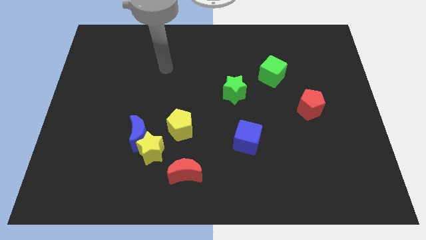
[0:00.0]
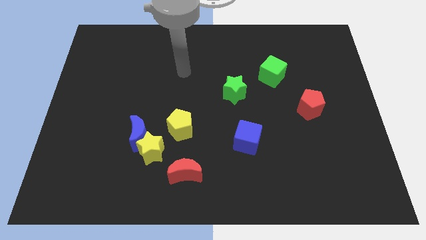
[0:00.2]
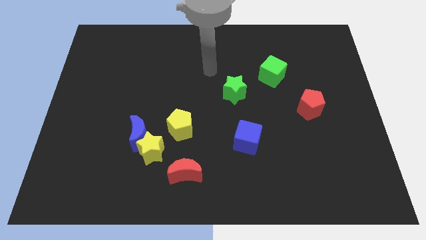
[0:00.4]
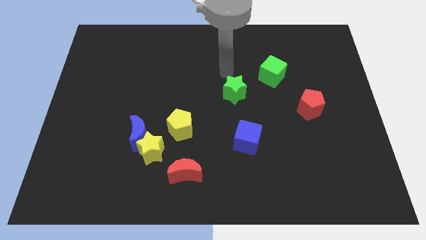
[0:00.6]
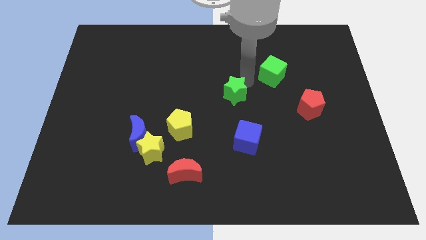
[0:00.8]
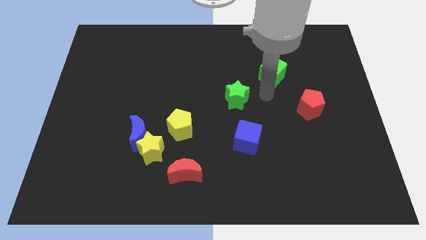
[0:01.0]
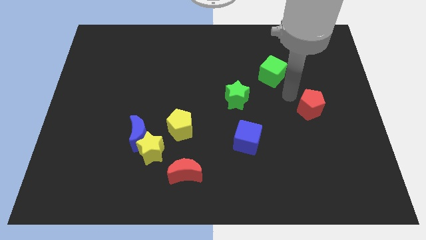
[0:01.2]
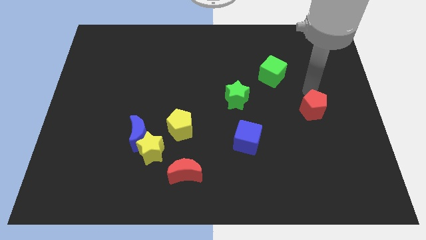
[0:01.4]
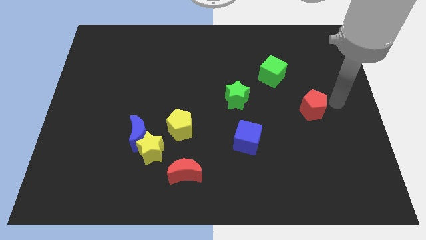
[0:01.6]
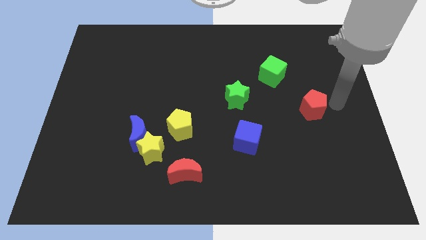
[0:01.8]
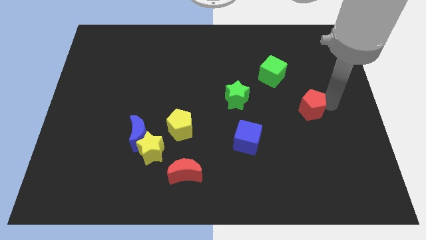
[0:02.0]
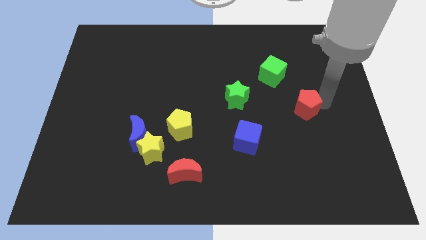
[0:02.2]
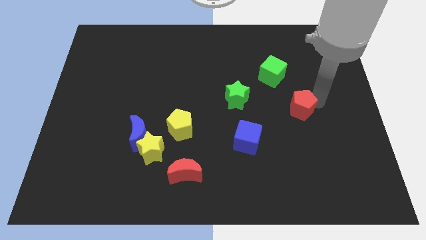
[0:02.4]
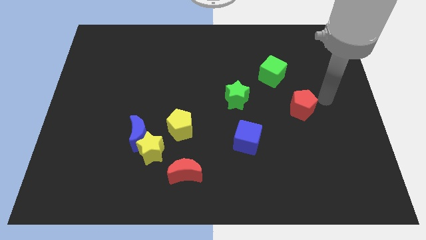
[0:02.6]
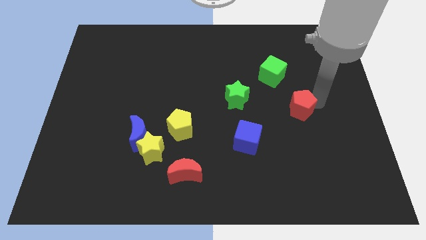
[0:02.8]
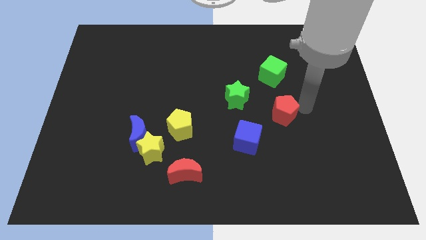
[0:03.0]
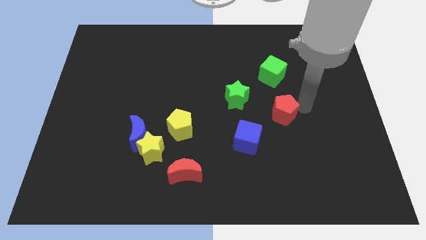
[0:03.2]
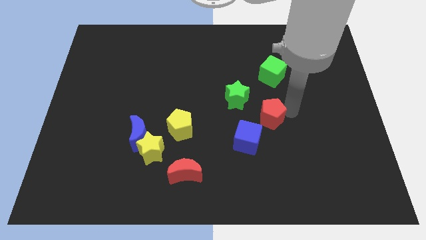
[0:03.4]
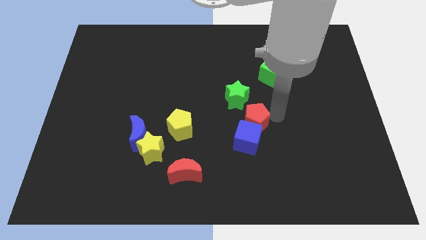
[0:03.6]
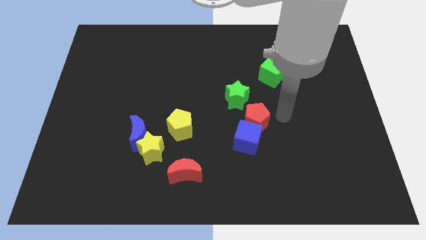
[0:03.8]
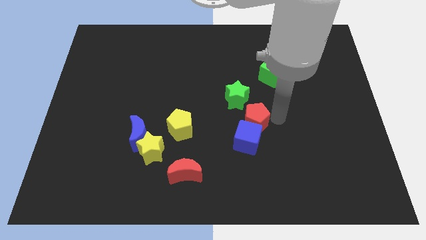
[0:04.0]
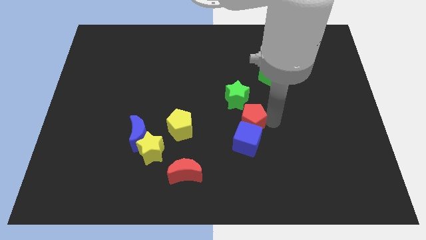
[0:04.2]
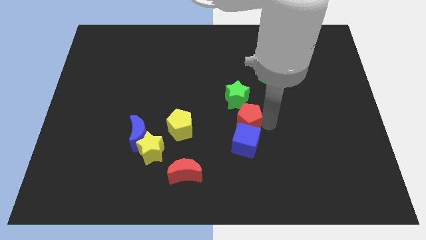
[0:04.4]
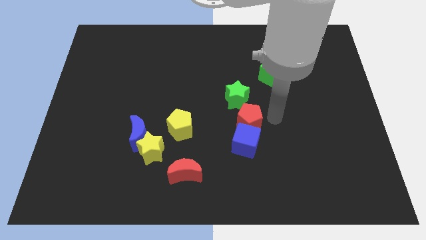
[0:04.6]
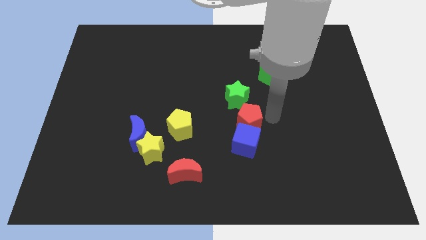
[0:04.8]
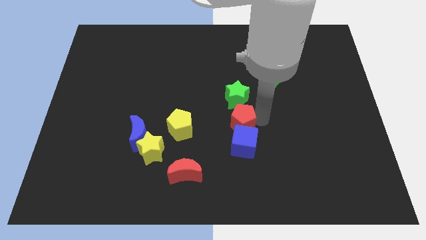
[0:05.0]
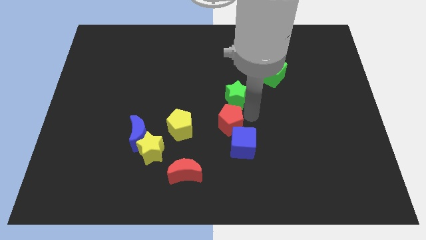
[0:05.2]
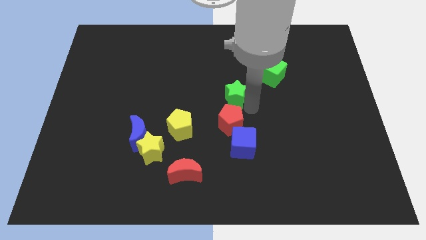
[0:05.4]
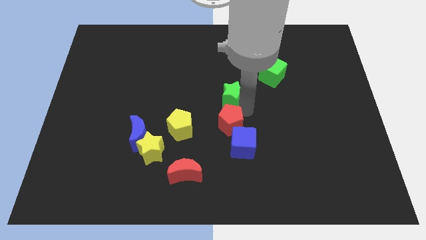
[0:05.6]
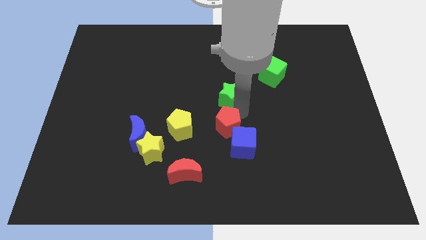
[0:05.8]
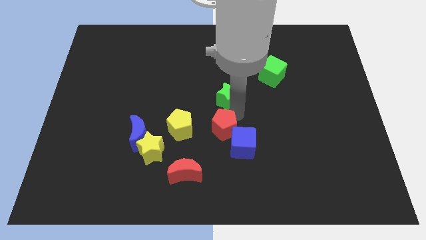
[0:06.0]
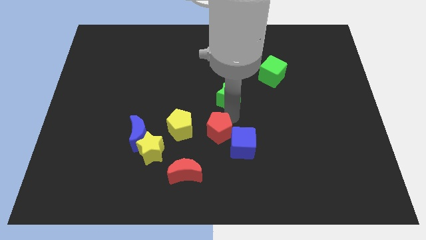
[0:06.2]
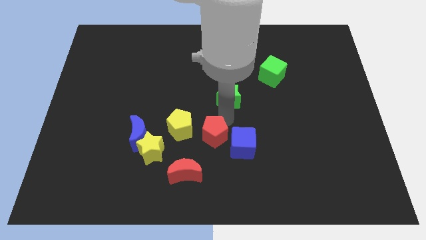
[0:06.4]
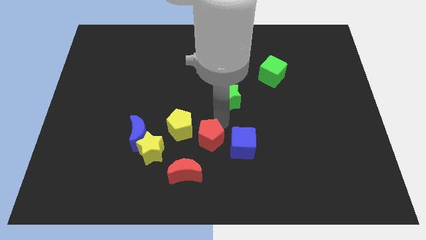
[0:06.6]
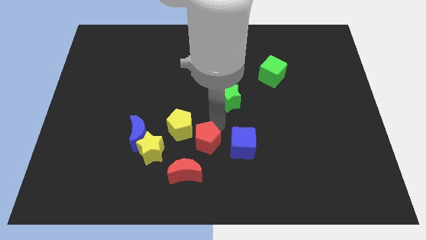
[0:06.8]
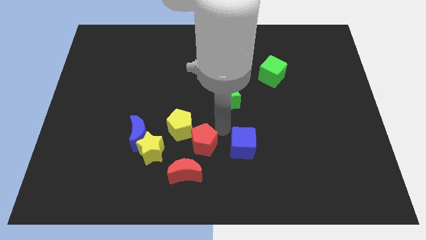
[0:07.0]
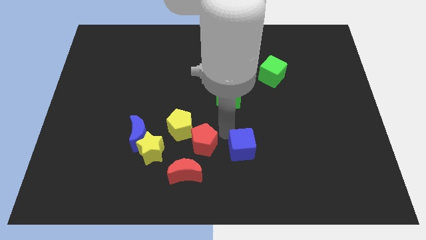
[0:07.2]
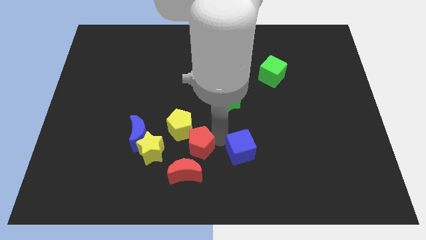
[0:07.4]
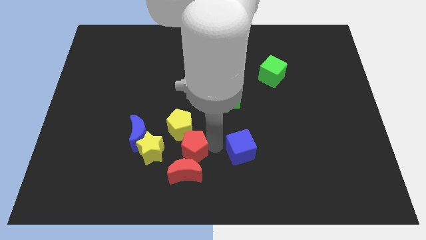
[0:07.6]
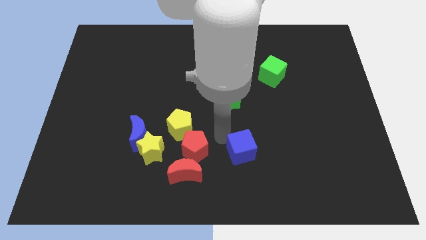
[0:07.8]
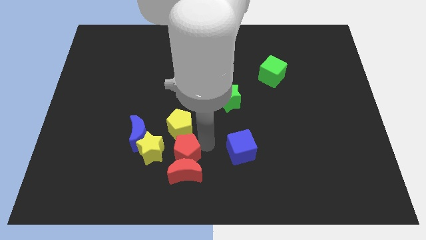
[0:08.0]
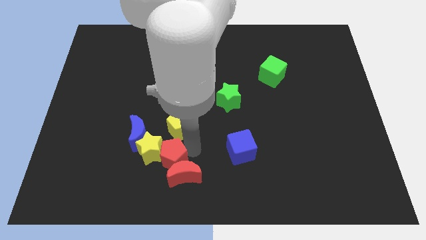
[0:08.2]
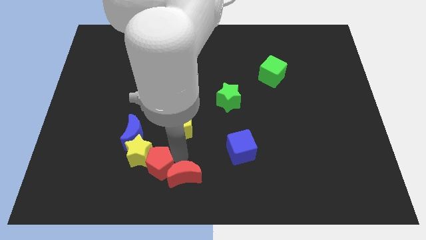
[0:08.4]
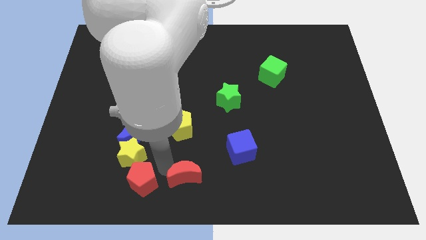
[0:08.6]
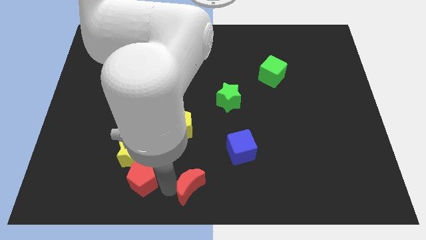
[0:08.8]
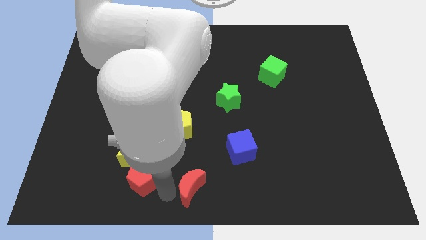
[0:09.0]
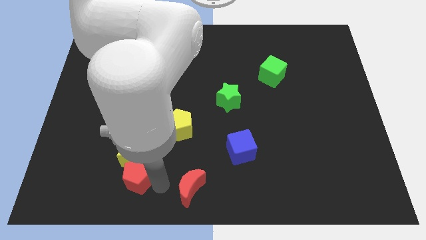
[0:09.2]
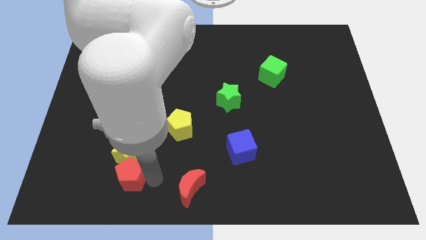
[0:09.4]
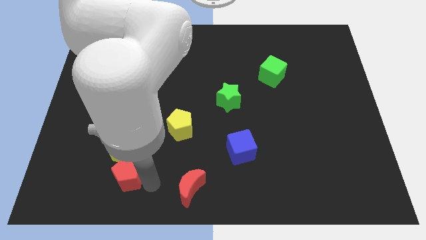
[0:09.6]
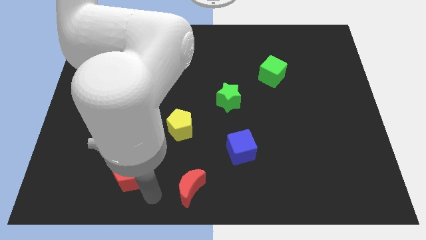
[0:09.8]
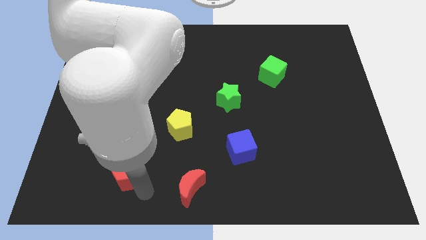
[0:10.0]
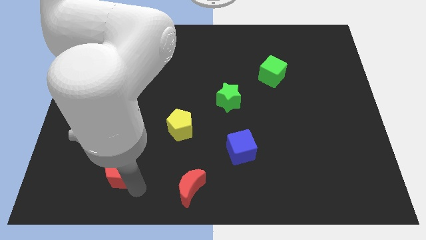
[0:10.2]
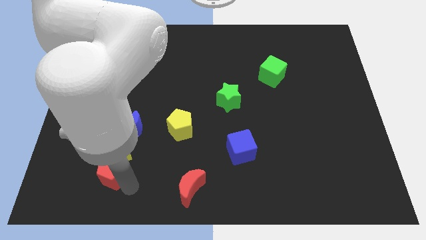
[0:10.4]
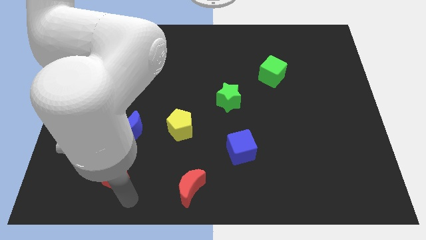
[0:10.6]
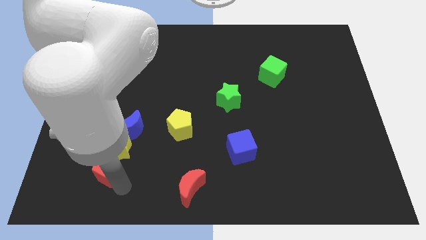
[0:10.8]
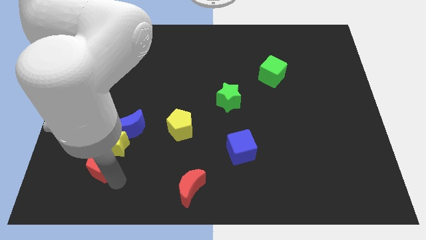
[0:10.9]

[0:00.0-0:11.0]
put the red pentagon diagonally down and to the left of the blue moon

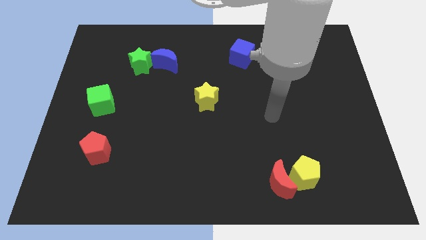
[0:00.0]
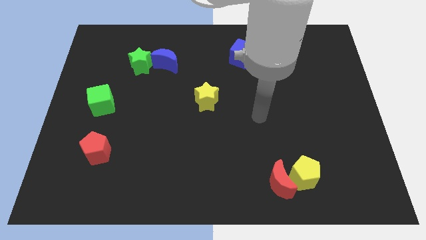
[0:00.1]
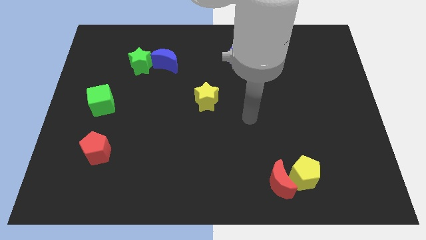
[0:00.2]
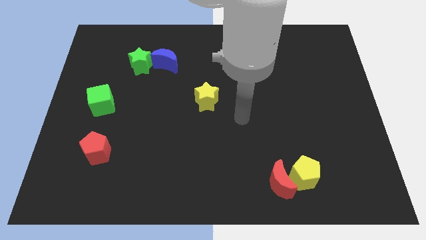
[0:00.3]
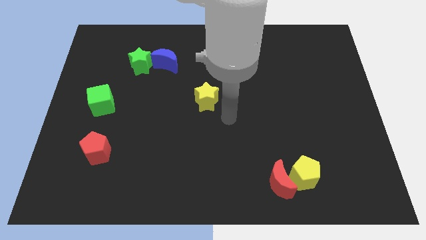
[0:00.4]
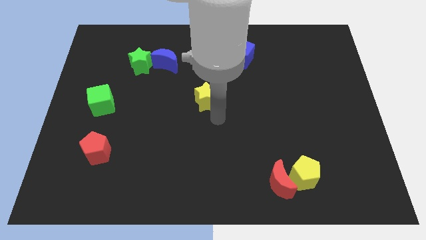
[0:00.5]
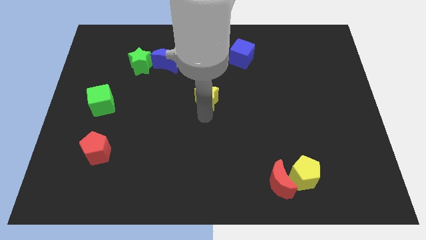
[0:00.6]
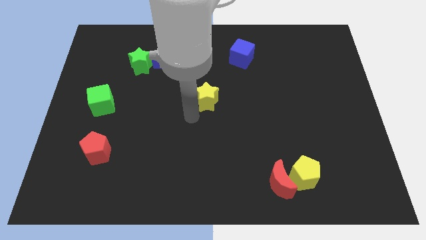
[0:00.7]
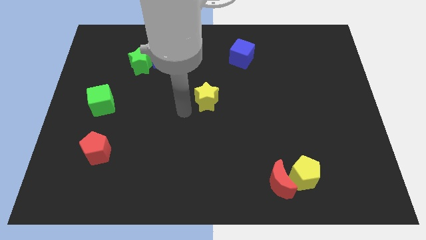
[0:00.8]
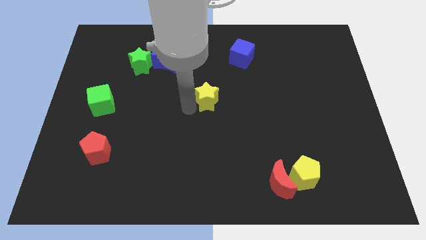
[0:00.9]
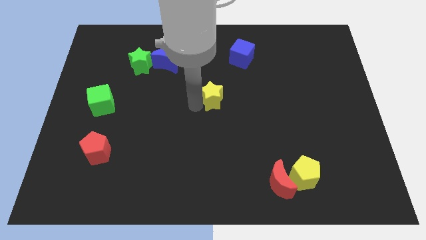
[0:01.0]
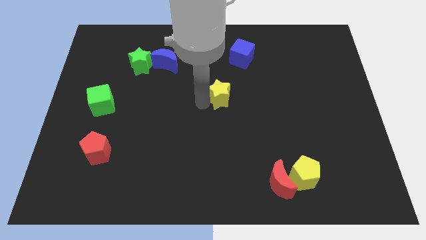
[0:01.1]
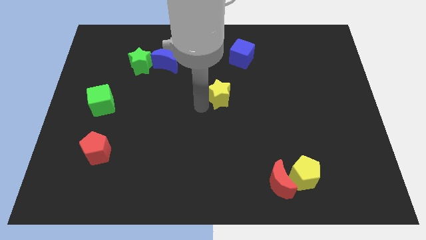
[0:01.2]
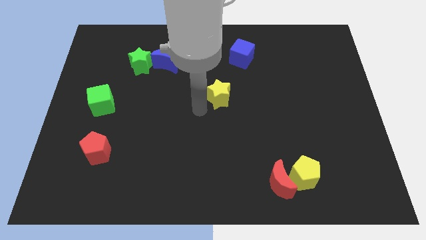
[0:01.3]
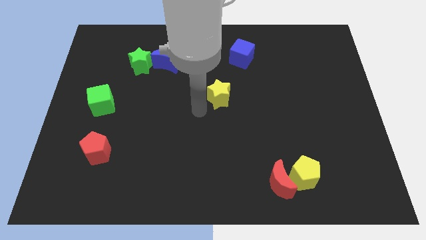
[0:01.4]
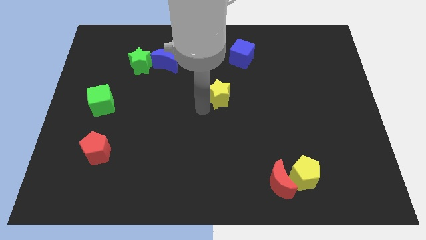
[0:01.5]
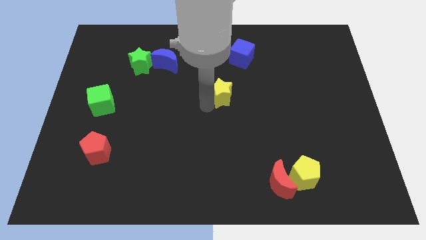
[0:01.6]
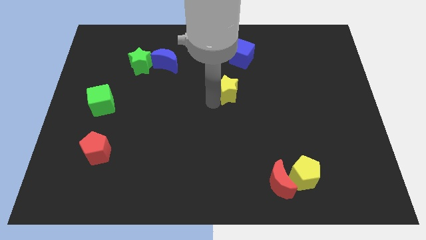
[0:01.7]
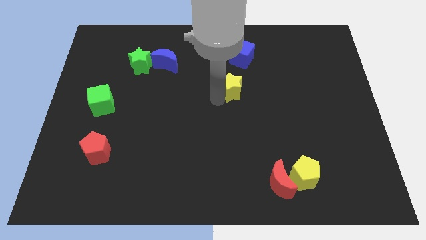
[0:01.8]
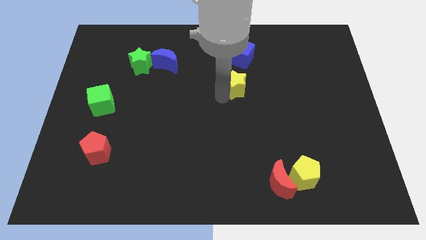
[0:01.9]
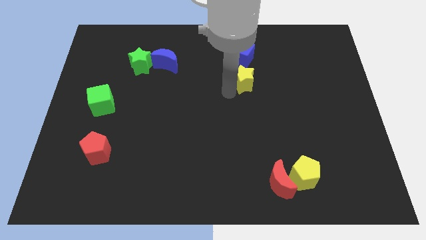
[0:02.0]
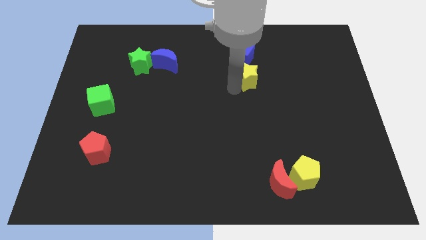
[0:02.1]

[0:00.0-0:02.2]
move the yellow star to the bottom right of the blue cube
